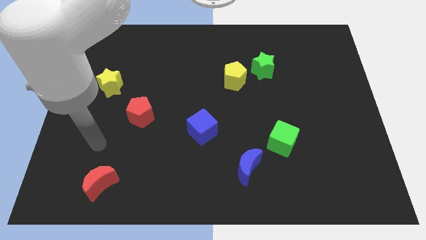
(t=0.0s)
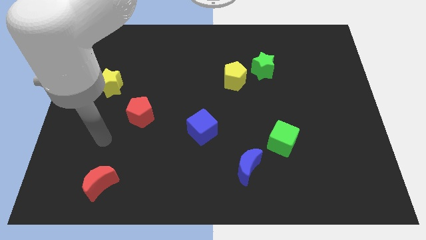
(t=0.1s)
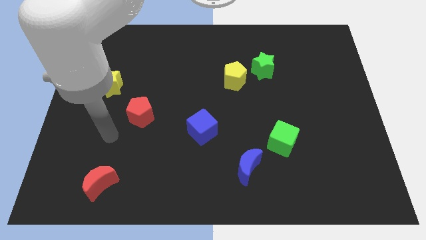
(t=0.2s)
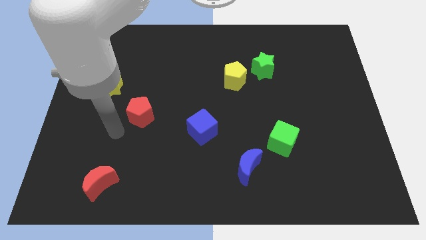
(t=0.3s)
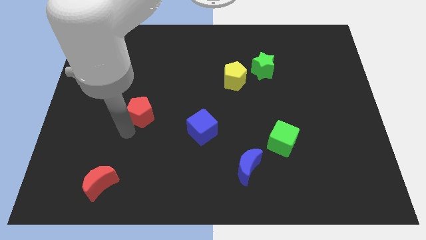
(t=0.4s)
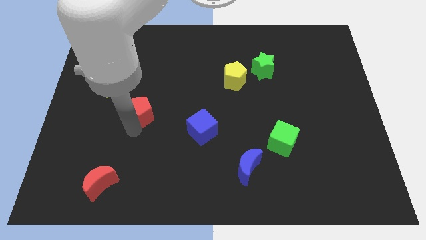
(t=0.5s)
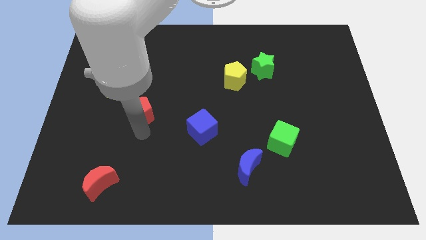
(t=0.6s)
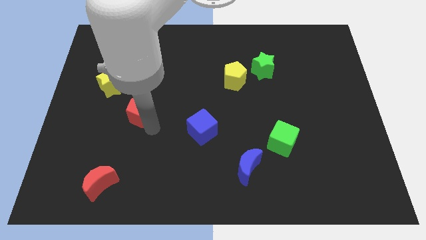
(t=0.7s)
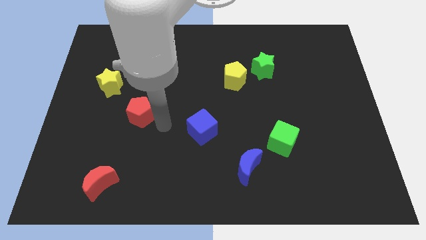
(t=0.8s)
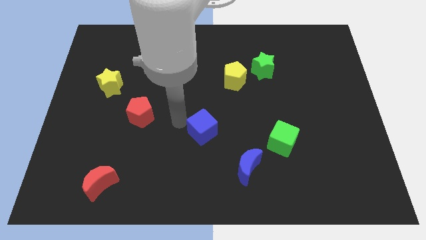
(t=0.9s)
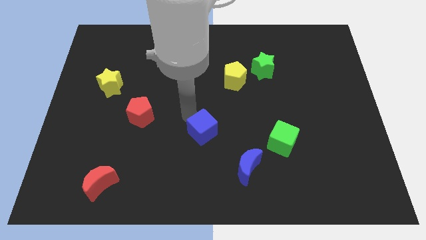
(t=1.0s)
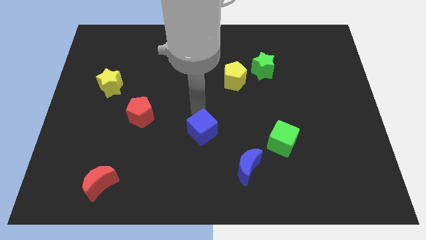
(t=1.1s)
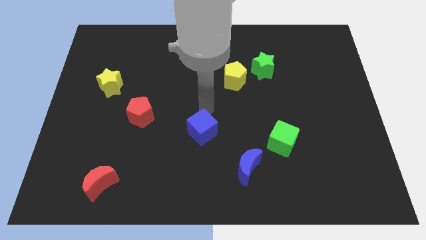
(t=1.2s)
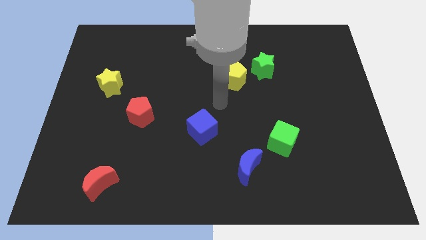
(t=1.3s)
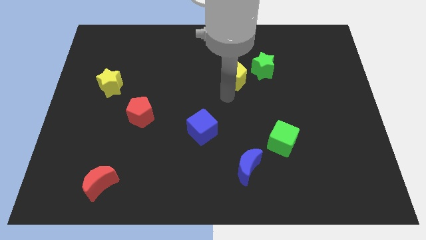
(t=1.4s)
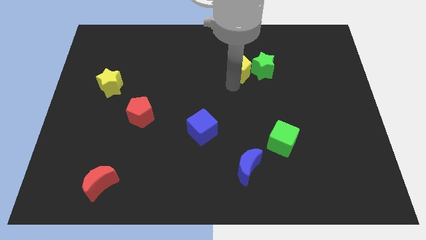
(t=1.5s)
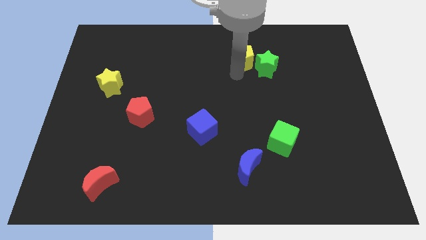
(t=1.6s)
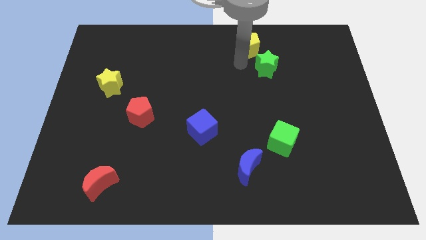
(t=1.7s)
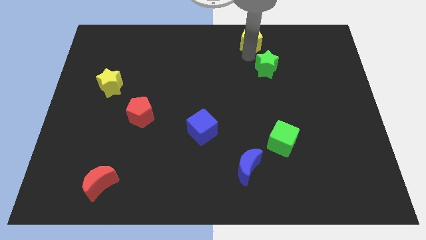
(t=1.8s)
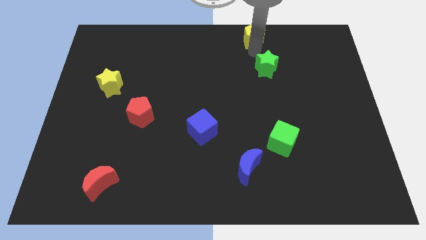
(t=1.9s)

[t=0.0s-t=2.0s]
separate the green star from the yellow pentagon

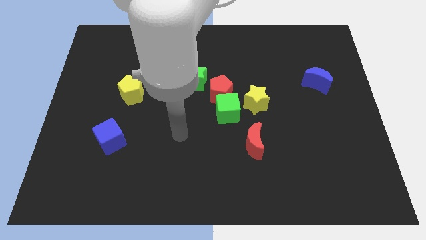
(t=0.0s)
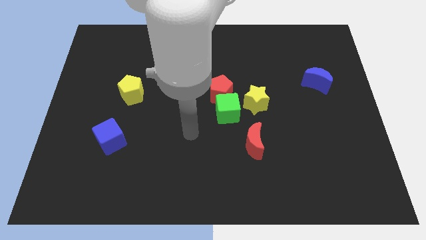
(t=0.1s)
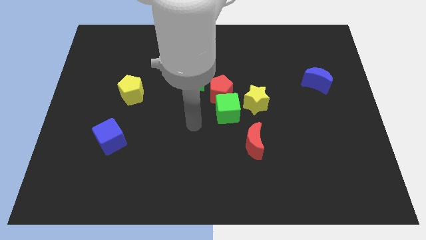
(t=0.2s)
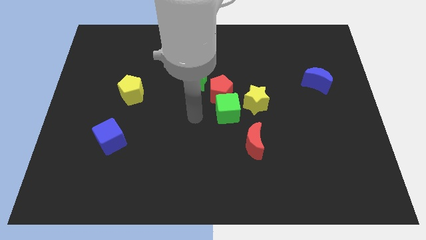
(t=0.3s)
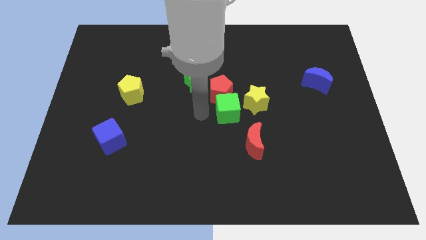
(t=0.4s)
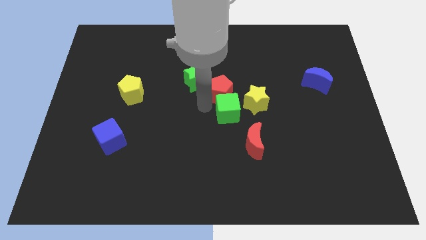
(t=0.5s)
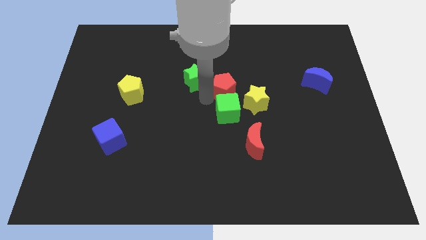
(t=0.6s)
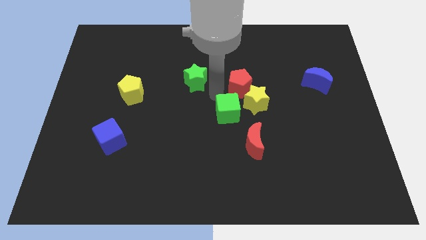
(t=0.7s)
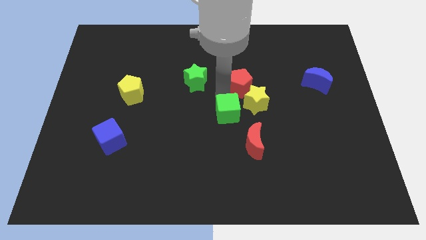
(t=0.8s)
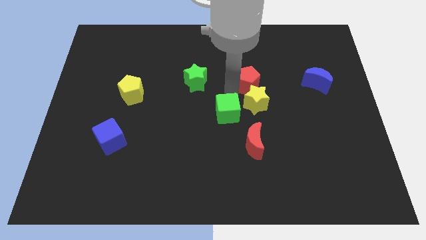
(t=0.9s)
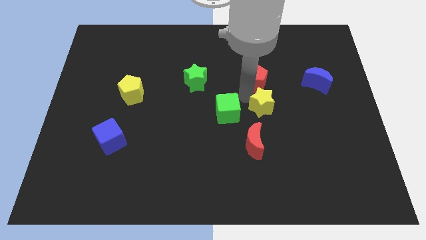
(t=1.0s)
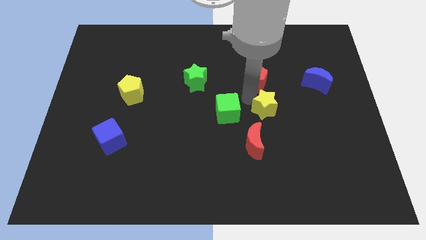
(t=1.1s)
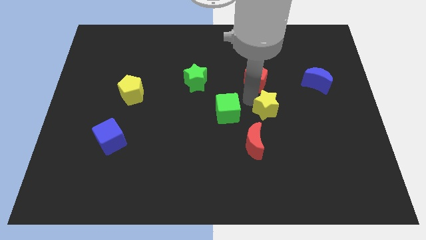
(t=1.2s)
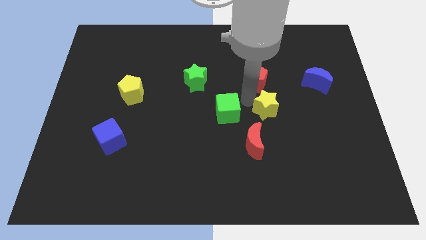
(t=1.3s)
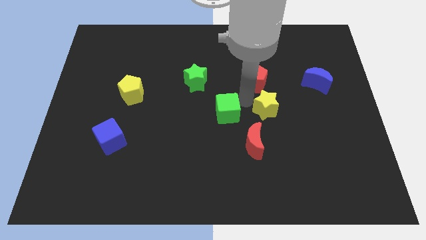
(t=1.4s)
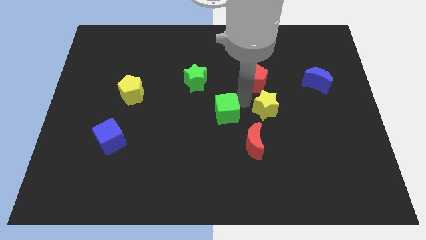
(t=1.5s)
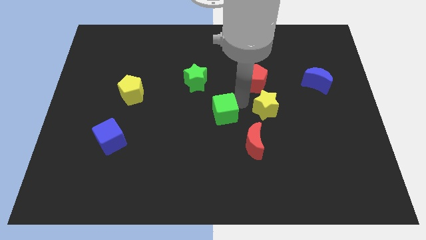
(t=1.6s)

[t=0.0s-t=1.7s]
pull the green cube apart from the red pentagon and yellow star

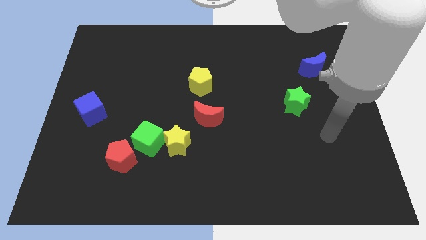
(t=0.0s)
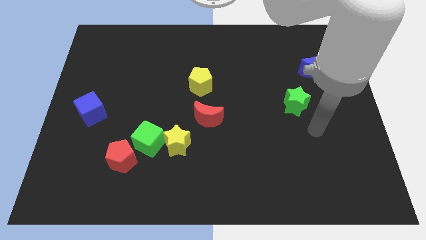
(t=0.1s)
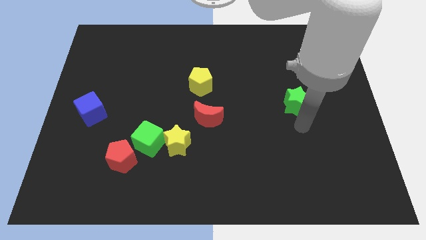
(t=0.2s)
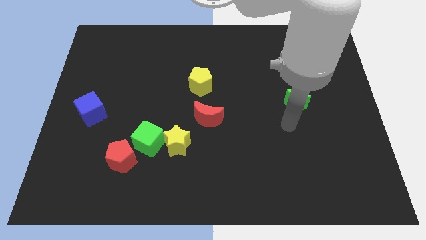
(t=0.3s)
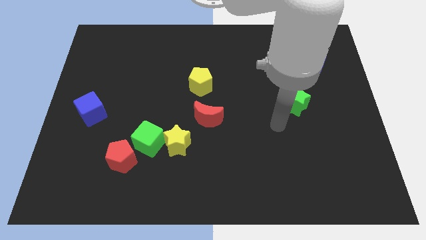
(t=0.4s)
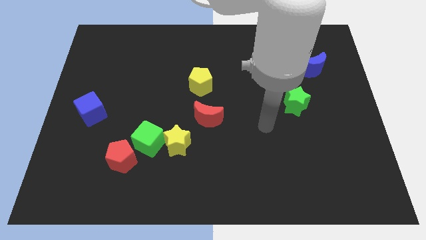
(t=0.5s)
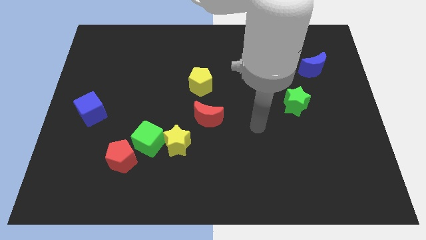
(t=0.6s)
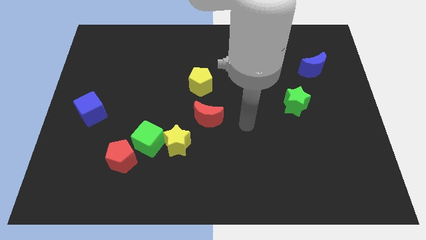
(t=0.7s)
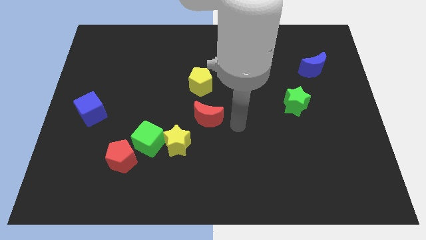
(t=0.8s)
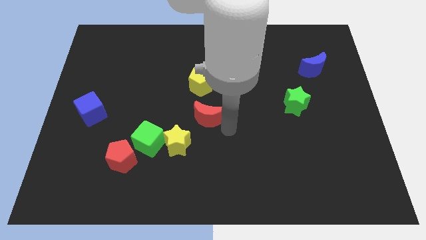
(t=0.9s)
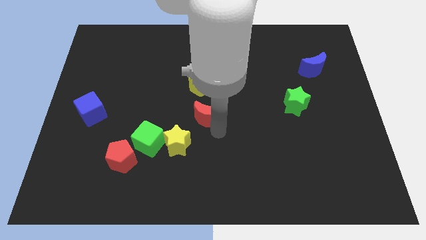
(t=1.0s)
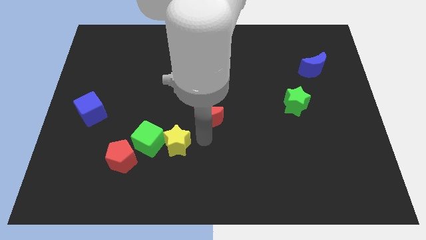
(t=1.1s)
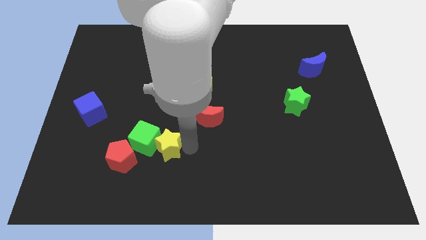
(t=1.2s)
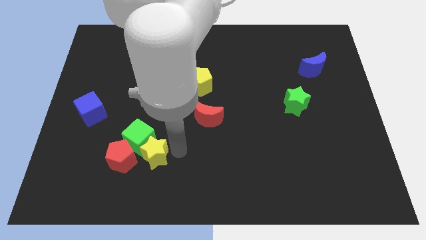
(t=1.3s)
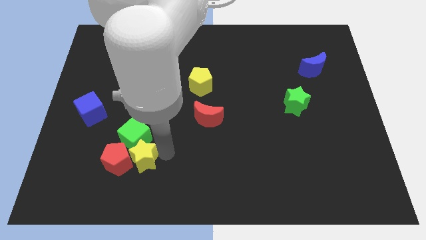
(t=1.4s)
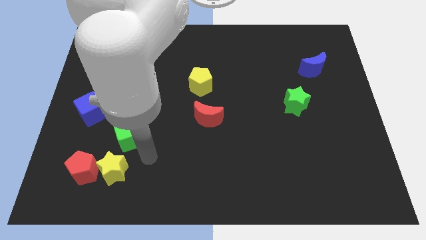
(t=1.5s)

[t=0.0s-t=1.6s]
pull the green cube apart from the yellow star and red pentagon

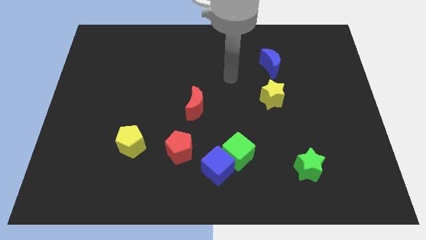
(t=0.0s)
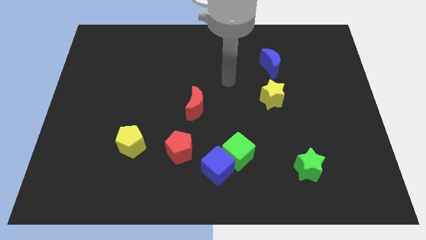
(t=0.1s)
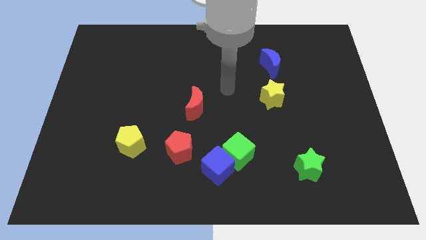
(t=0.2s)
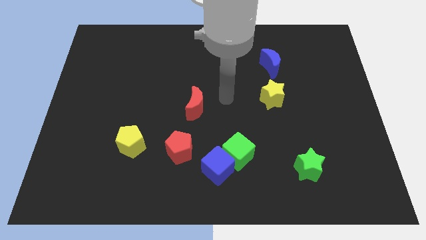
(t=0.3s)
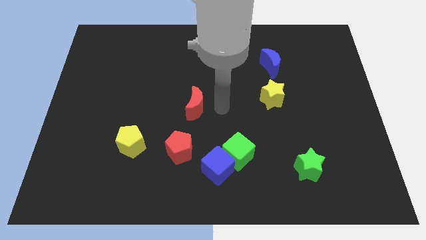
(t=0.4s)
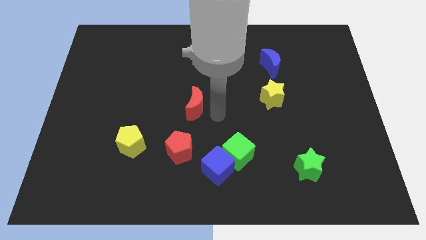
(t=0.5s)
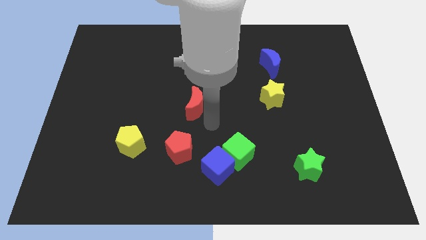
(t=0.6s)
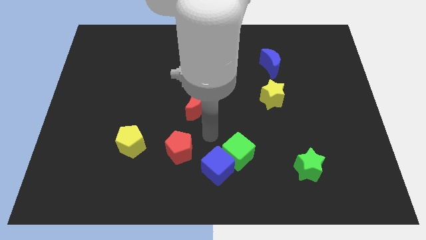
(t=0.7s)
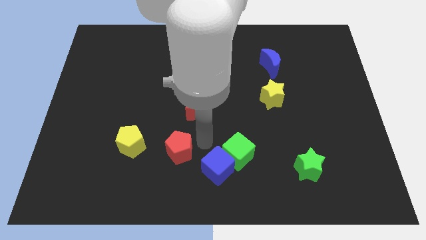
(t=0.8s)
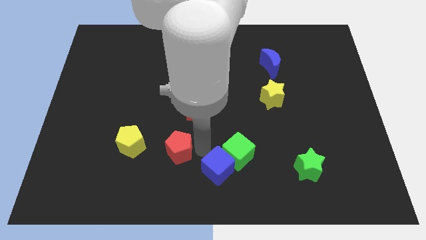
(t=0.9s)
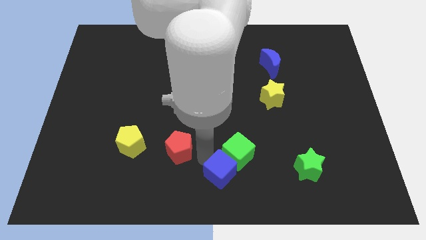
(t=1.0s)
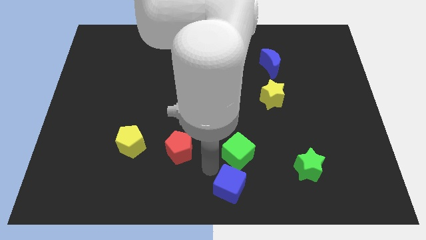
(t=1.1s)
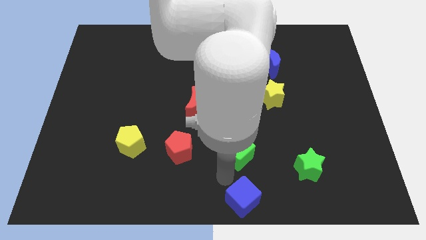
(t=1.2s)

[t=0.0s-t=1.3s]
move the green cube away from the blue cube

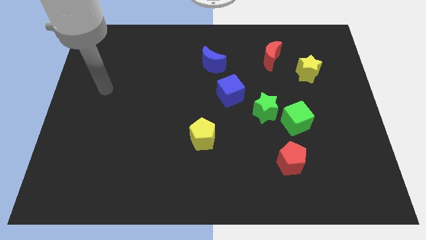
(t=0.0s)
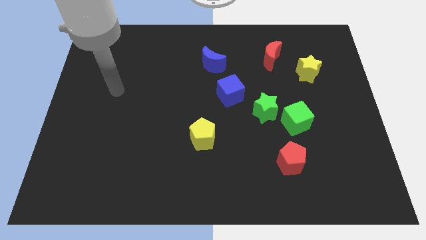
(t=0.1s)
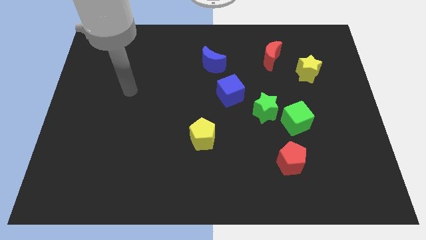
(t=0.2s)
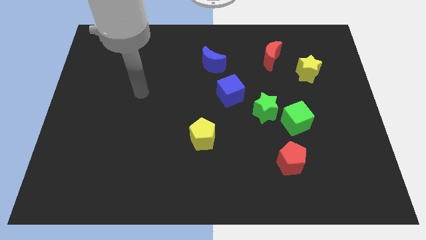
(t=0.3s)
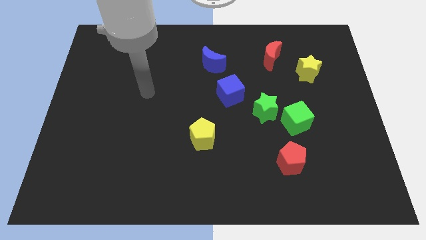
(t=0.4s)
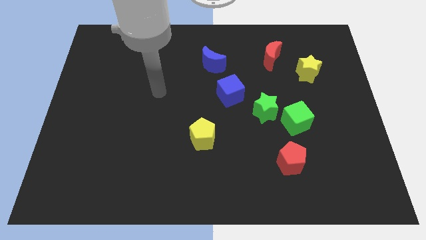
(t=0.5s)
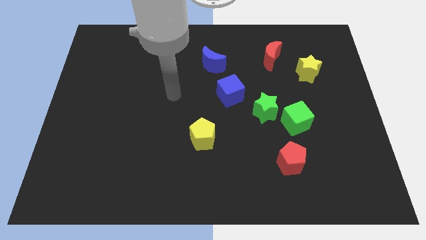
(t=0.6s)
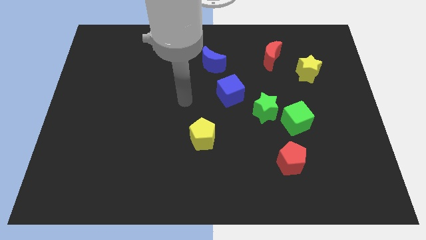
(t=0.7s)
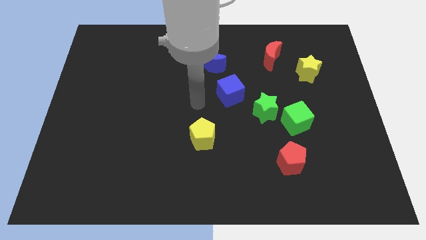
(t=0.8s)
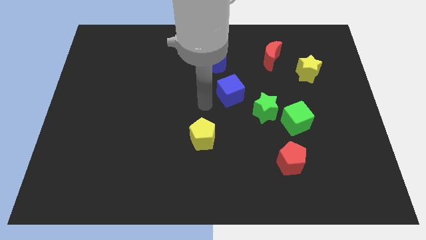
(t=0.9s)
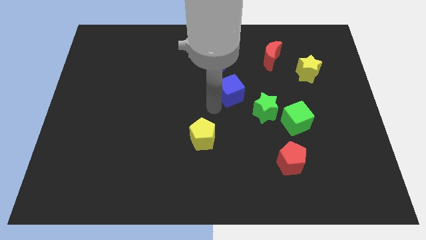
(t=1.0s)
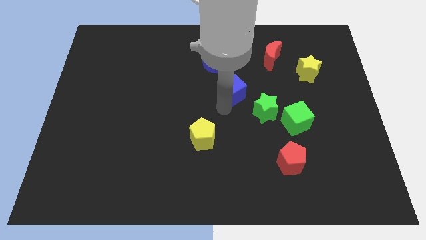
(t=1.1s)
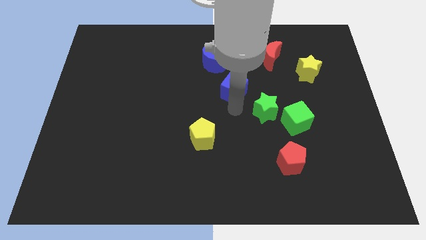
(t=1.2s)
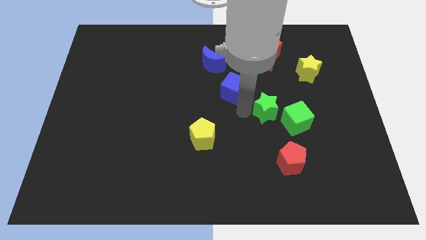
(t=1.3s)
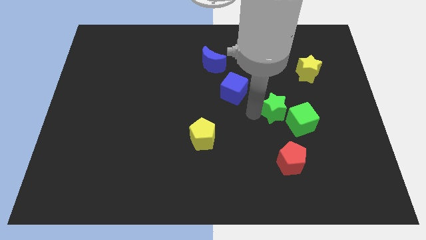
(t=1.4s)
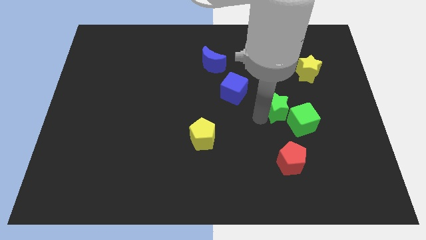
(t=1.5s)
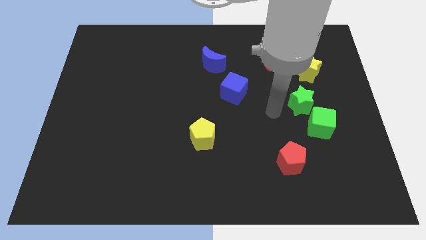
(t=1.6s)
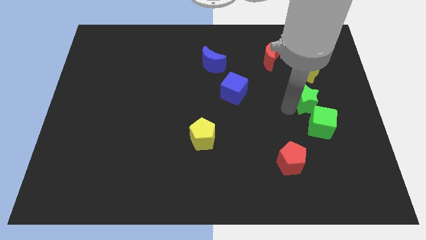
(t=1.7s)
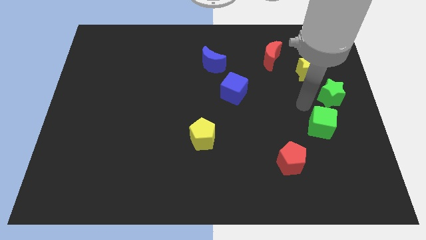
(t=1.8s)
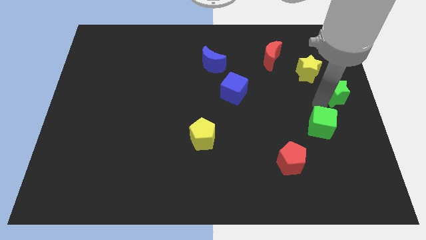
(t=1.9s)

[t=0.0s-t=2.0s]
separate the green cube from the green star

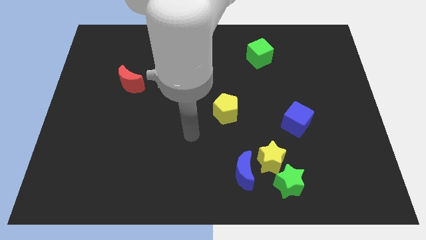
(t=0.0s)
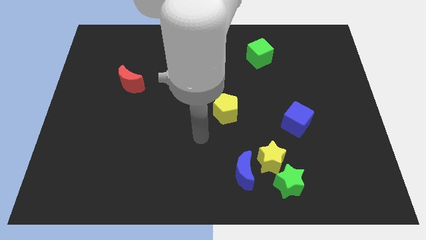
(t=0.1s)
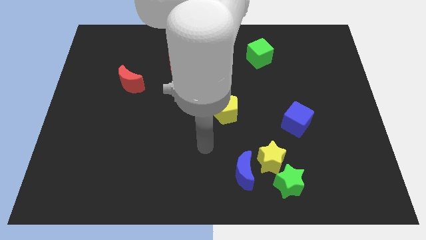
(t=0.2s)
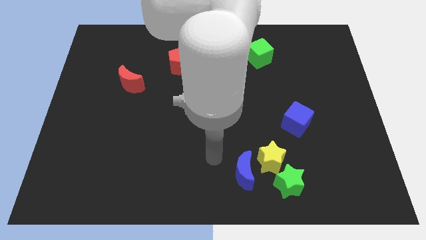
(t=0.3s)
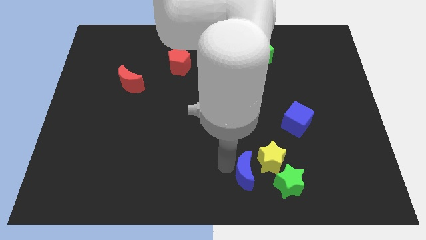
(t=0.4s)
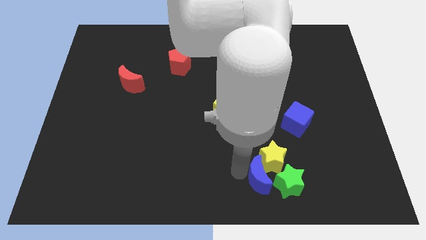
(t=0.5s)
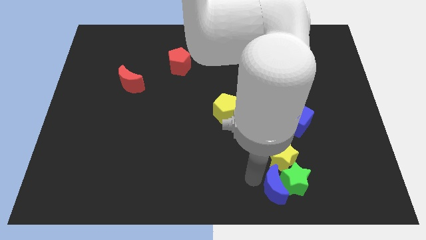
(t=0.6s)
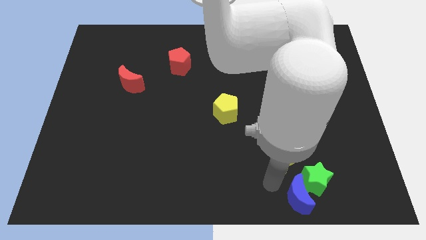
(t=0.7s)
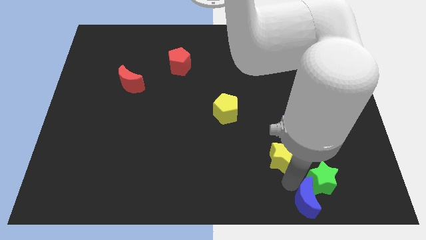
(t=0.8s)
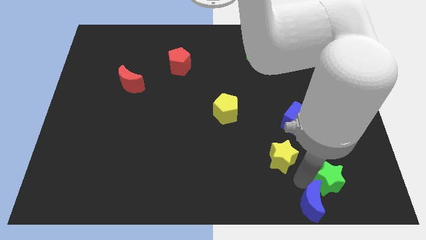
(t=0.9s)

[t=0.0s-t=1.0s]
separate the yellow star from the green star and blue moon
